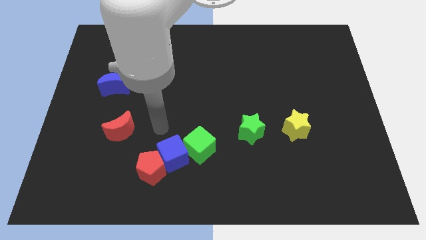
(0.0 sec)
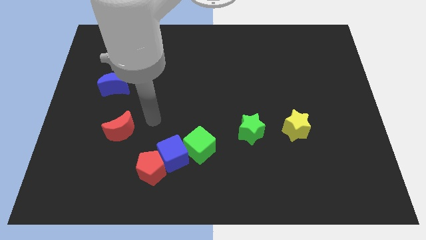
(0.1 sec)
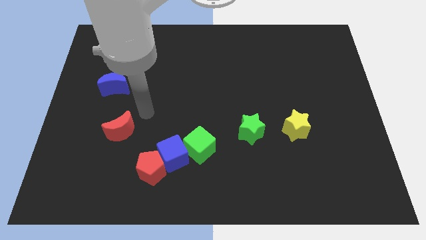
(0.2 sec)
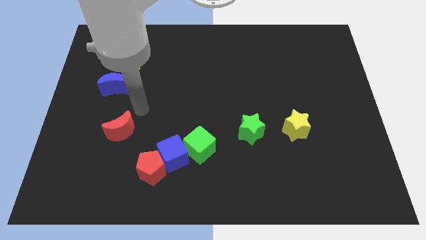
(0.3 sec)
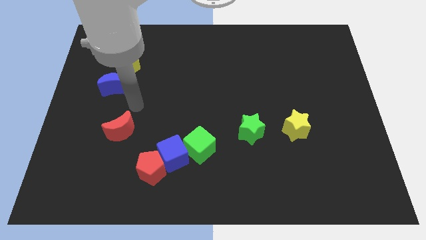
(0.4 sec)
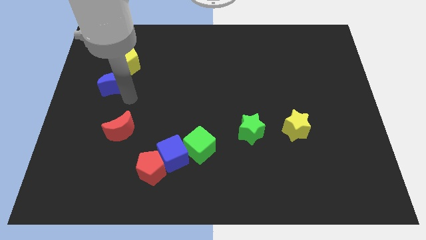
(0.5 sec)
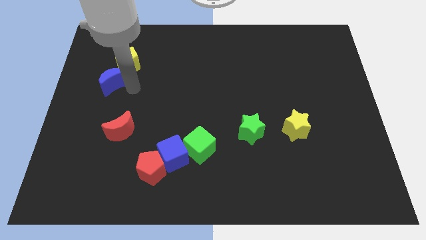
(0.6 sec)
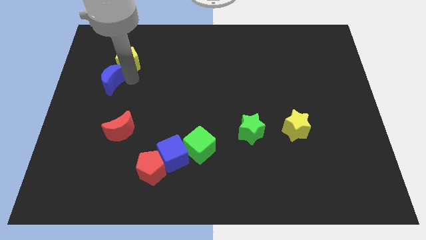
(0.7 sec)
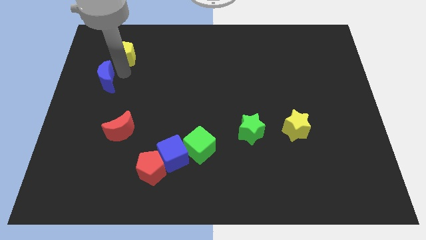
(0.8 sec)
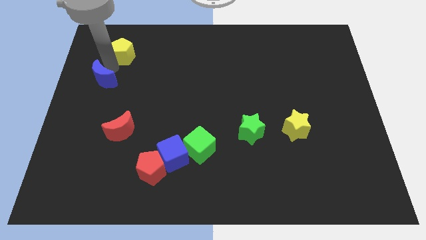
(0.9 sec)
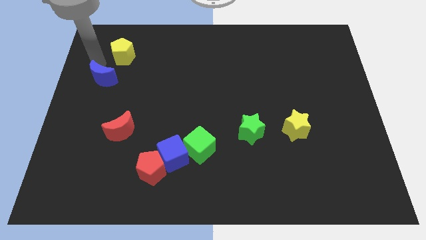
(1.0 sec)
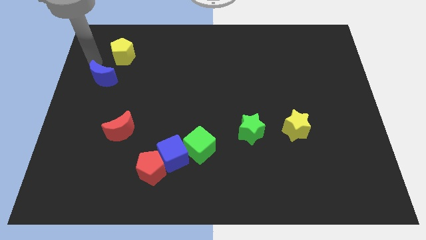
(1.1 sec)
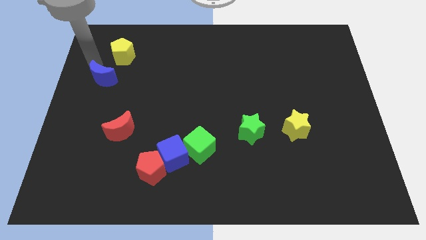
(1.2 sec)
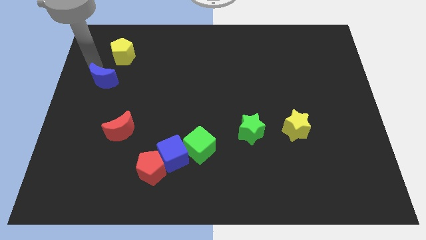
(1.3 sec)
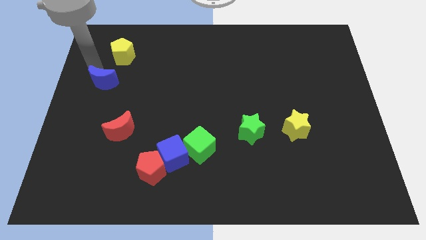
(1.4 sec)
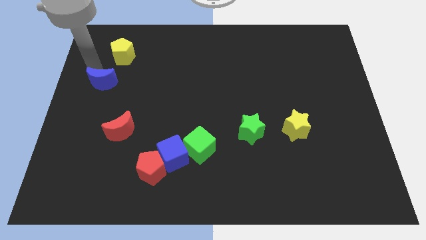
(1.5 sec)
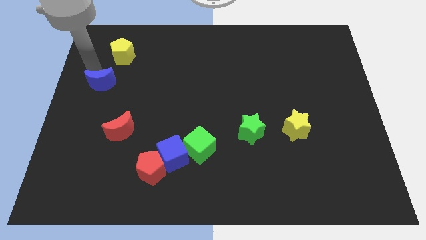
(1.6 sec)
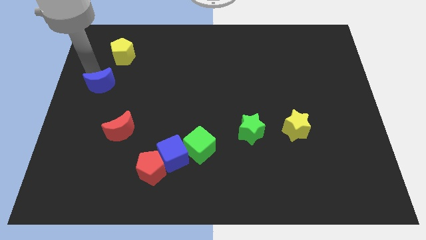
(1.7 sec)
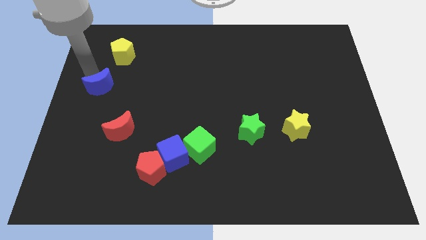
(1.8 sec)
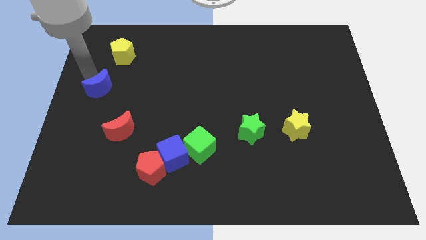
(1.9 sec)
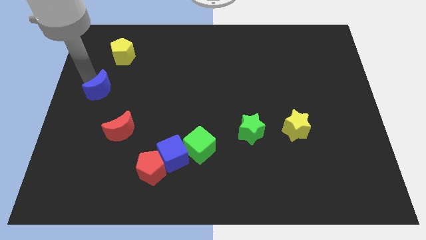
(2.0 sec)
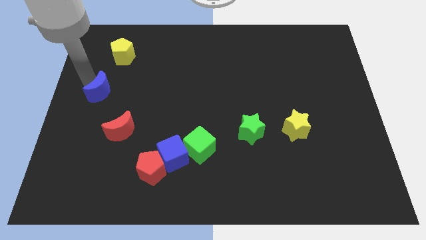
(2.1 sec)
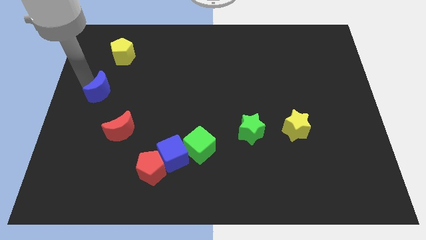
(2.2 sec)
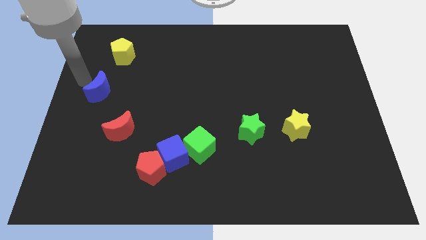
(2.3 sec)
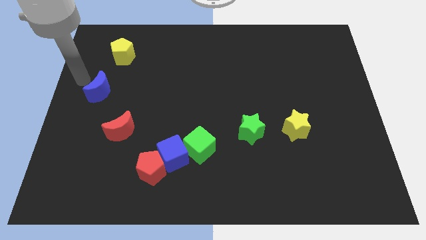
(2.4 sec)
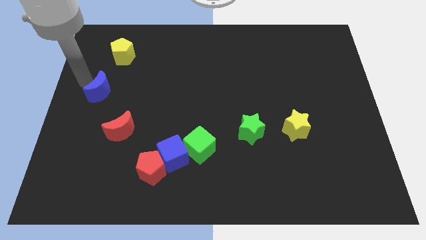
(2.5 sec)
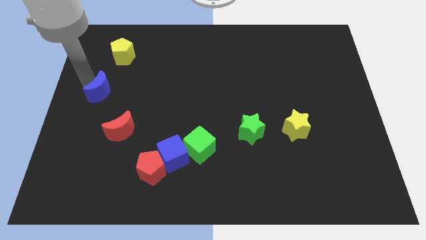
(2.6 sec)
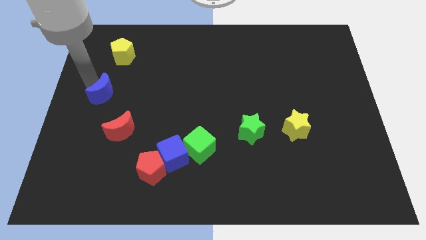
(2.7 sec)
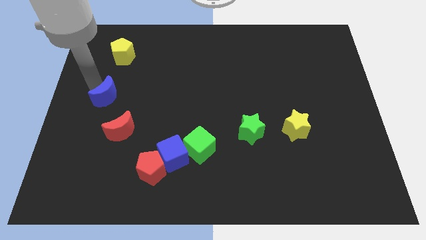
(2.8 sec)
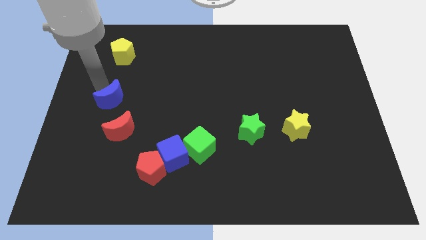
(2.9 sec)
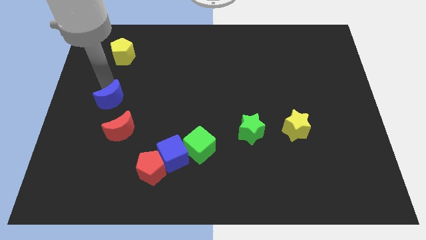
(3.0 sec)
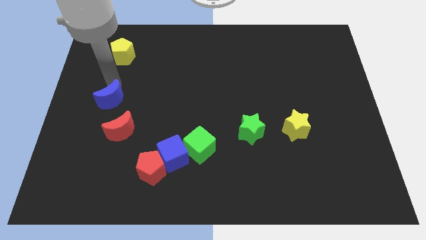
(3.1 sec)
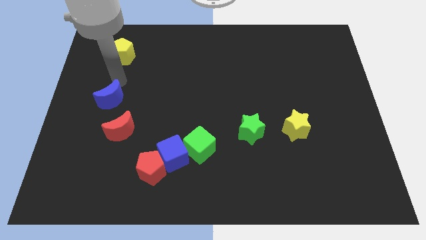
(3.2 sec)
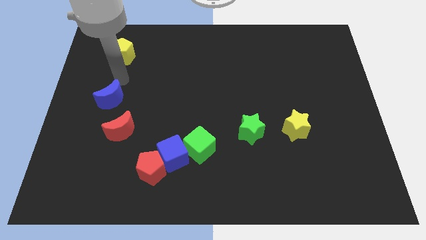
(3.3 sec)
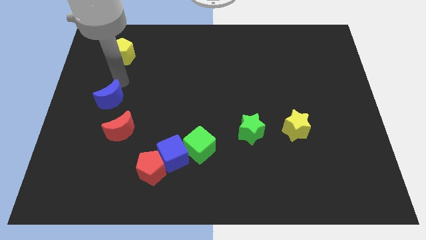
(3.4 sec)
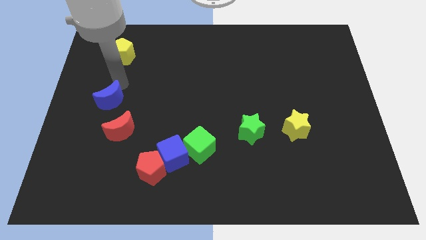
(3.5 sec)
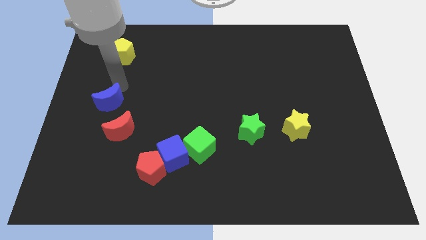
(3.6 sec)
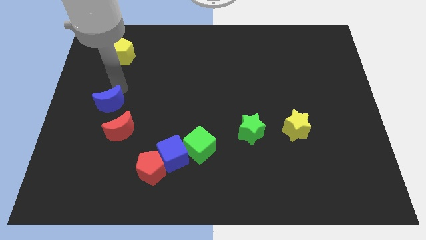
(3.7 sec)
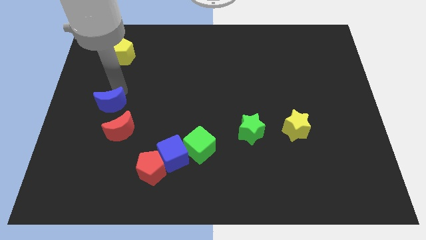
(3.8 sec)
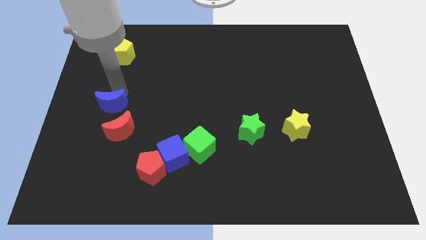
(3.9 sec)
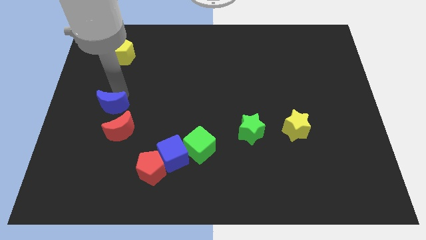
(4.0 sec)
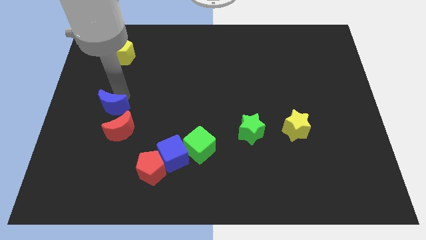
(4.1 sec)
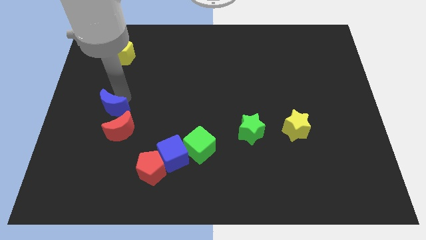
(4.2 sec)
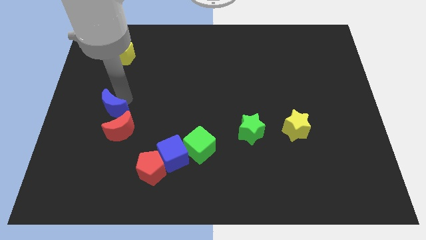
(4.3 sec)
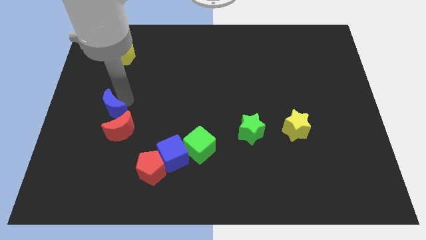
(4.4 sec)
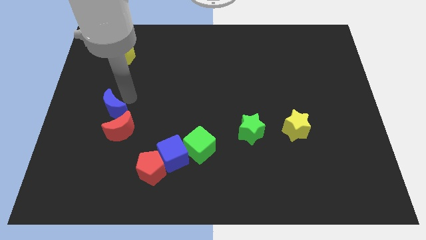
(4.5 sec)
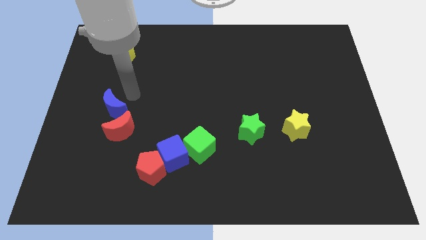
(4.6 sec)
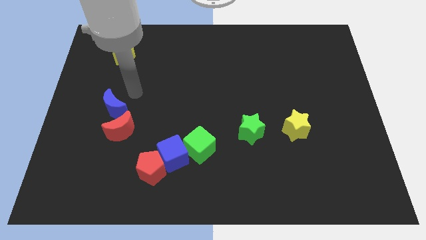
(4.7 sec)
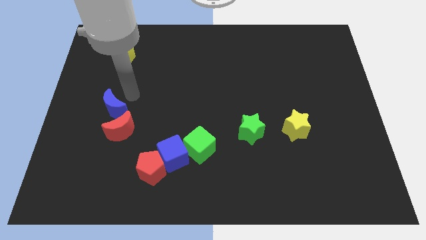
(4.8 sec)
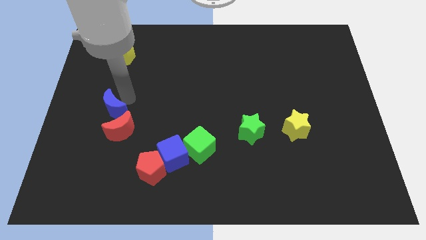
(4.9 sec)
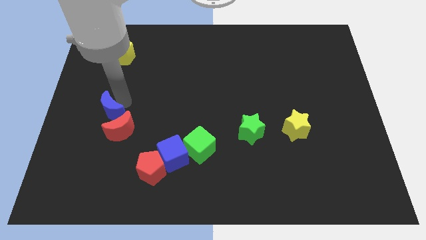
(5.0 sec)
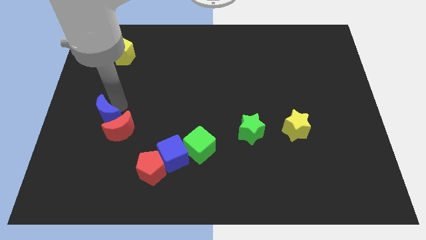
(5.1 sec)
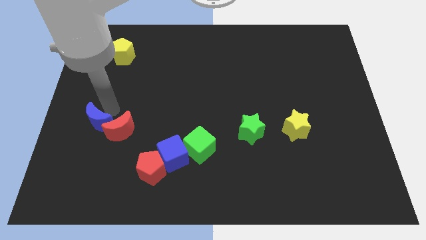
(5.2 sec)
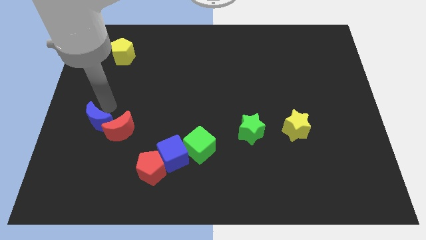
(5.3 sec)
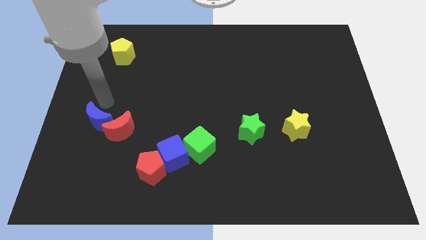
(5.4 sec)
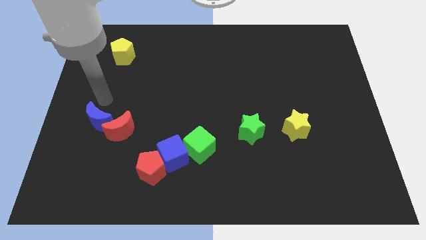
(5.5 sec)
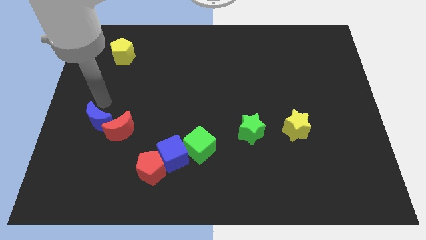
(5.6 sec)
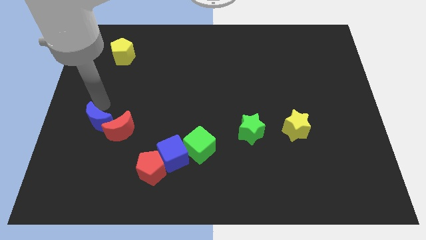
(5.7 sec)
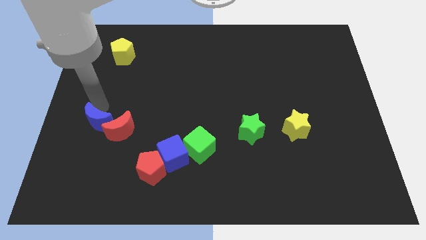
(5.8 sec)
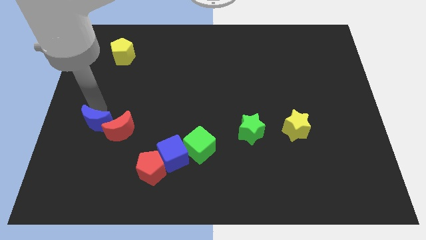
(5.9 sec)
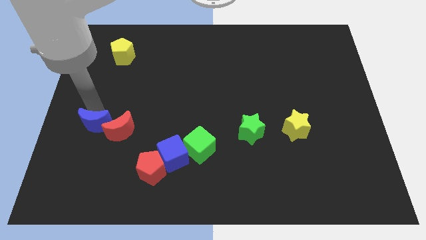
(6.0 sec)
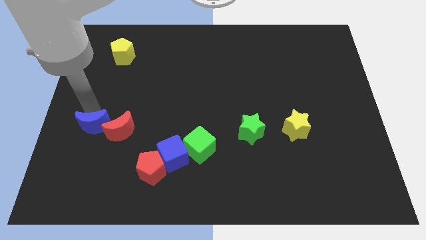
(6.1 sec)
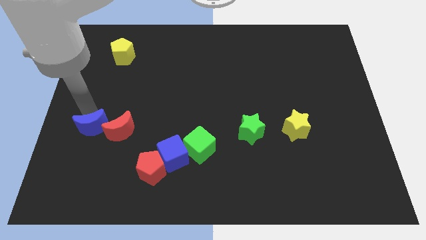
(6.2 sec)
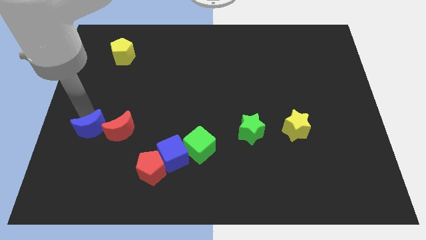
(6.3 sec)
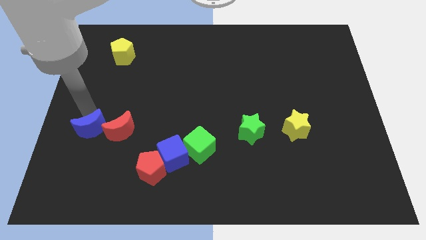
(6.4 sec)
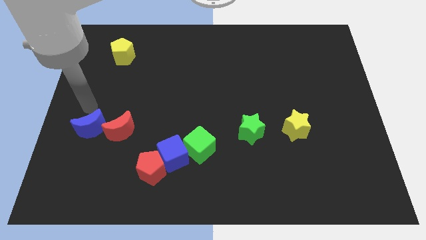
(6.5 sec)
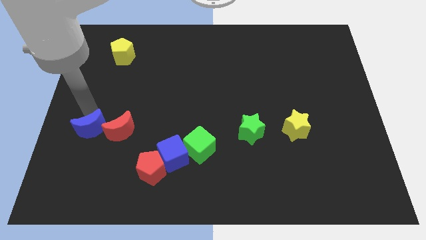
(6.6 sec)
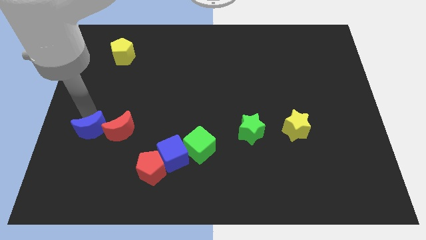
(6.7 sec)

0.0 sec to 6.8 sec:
put the blue moon to the bottom left side of the red moon
